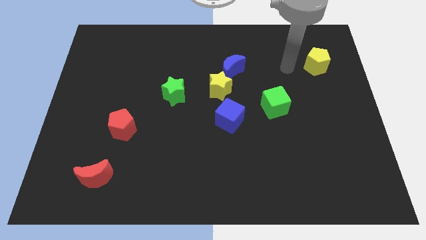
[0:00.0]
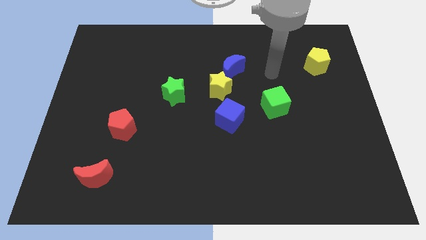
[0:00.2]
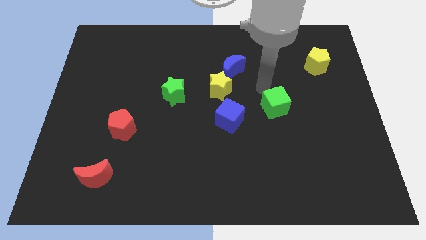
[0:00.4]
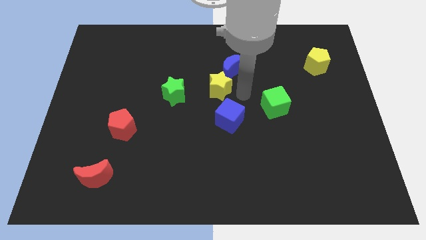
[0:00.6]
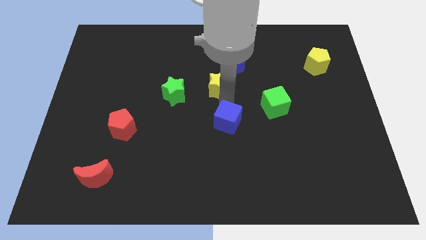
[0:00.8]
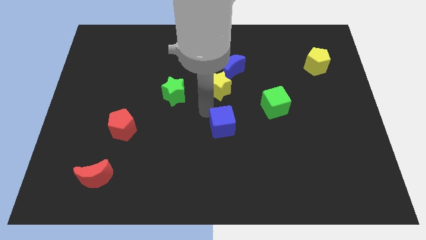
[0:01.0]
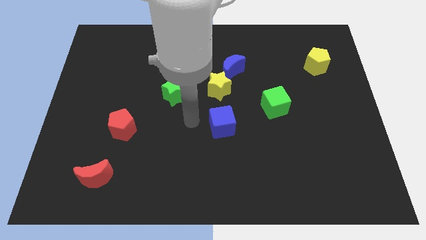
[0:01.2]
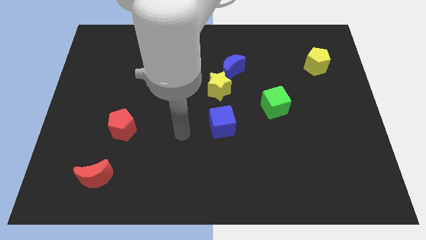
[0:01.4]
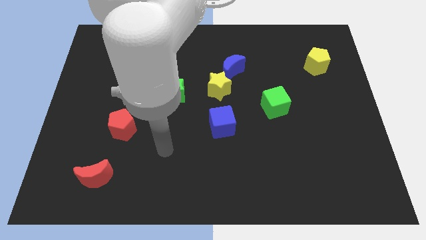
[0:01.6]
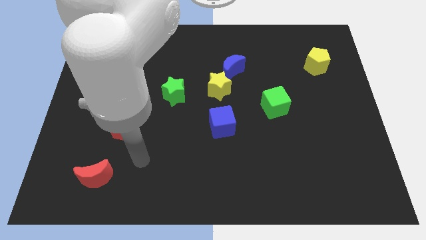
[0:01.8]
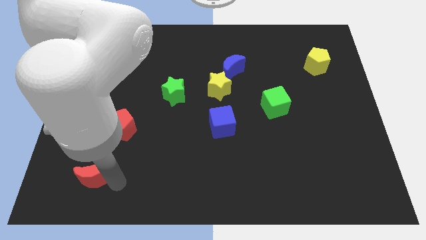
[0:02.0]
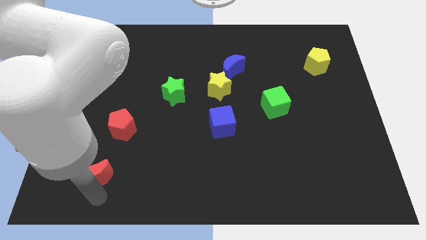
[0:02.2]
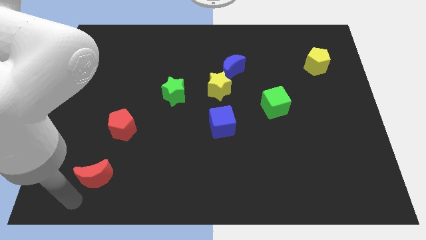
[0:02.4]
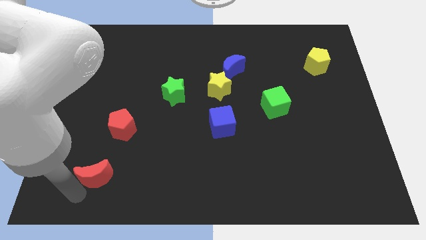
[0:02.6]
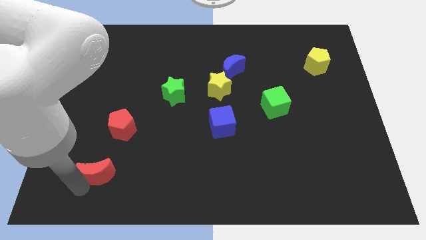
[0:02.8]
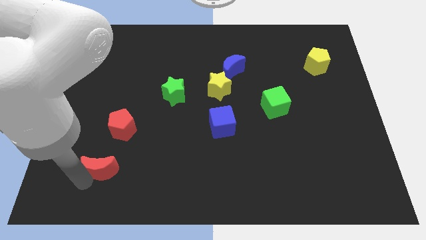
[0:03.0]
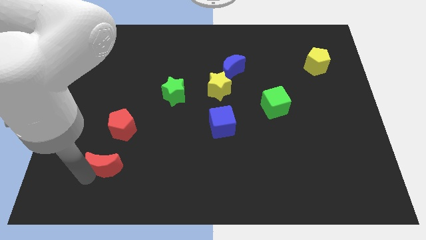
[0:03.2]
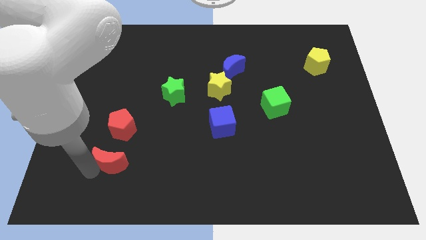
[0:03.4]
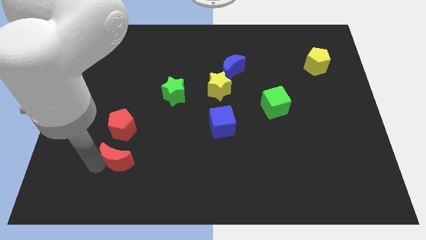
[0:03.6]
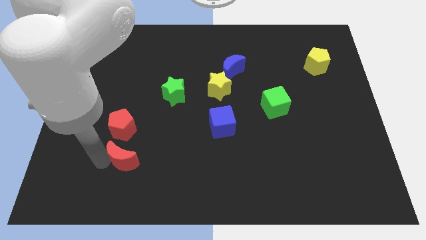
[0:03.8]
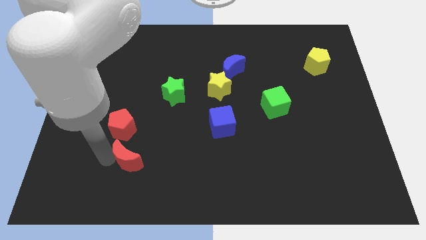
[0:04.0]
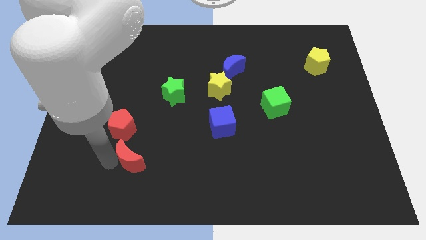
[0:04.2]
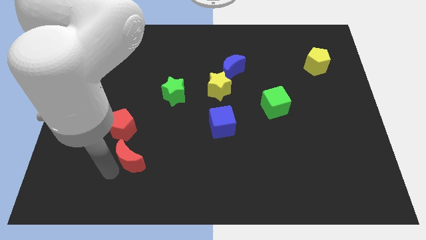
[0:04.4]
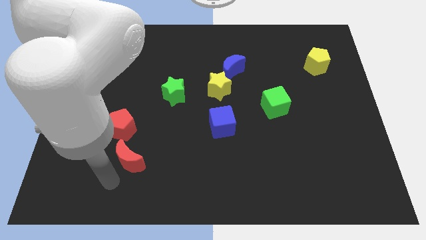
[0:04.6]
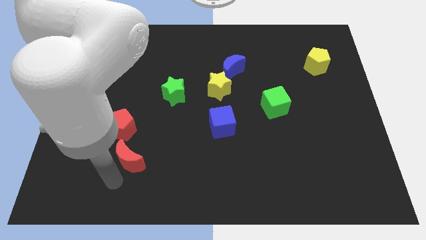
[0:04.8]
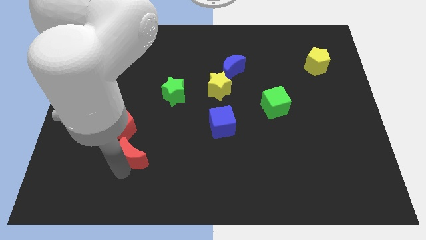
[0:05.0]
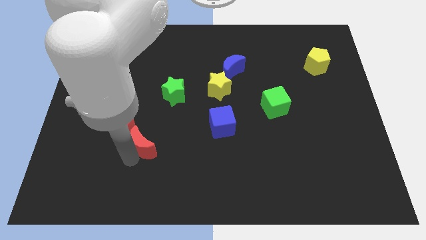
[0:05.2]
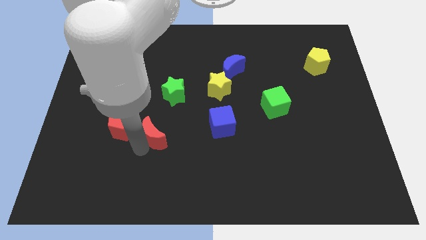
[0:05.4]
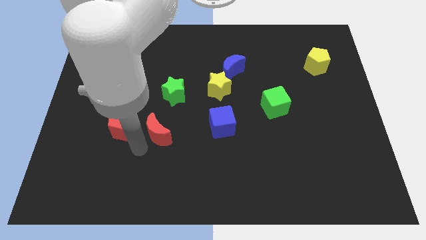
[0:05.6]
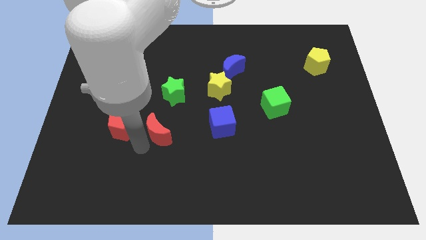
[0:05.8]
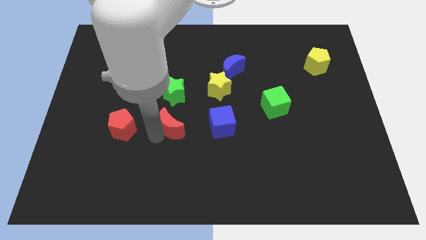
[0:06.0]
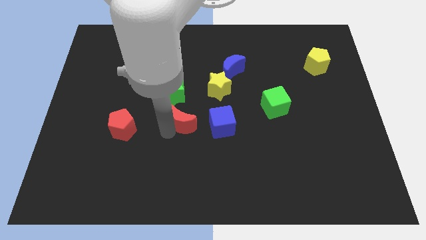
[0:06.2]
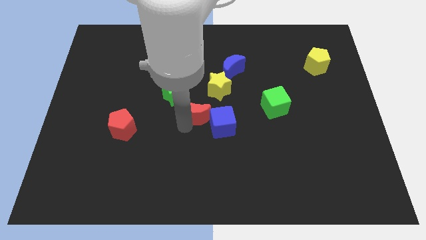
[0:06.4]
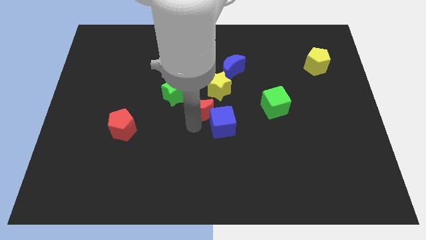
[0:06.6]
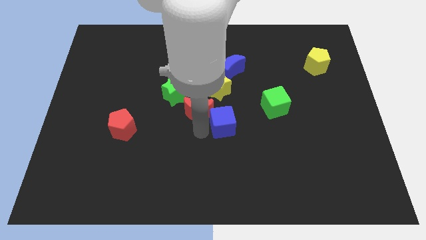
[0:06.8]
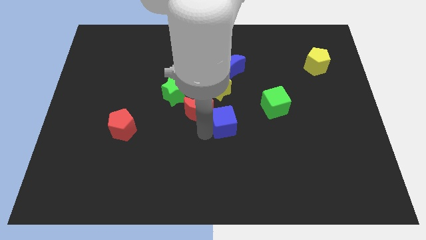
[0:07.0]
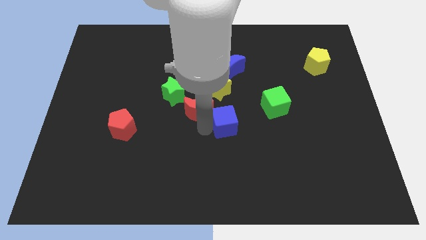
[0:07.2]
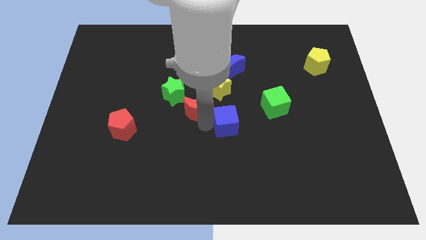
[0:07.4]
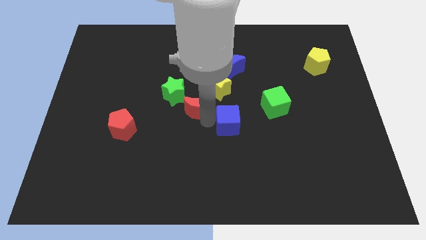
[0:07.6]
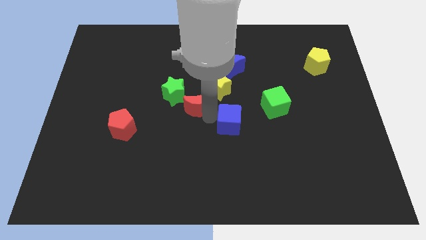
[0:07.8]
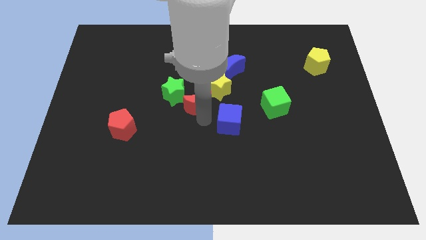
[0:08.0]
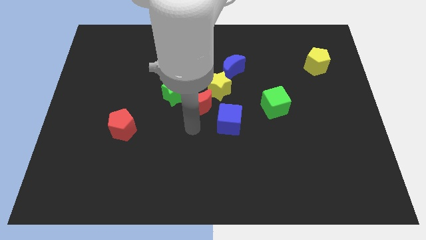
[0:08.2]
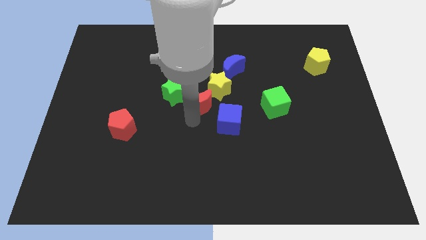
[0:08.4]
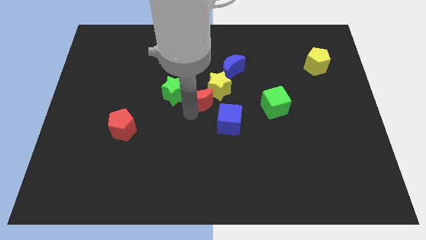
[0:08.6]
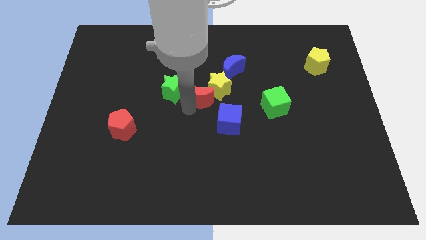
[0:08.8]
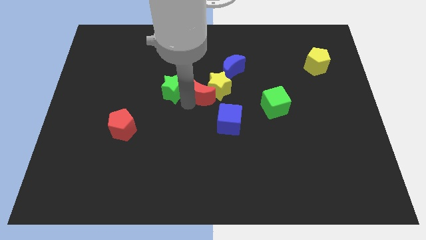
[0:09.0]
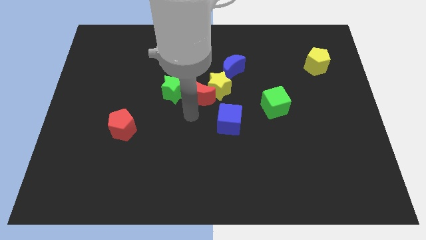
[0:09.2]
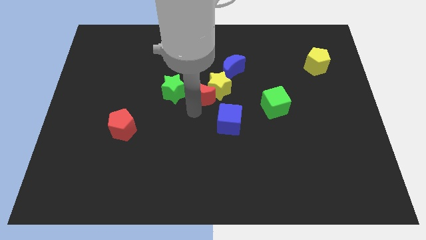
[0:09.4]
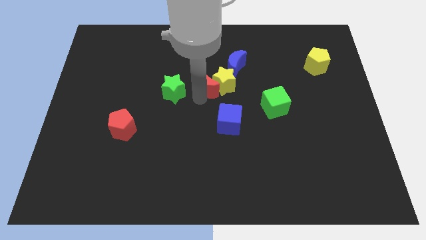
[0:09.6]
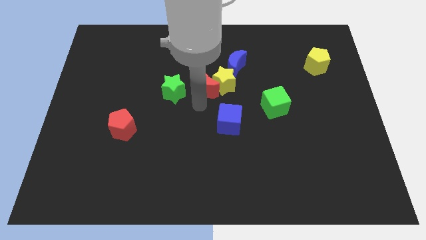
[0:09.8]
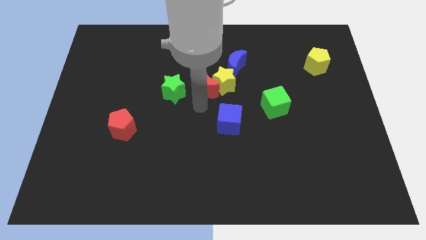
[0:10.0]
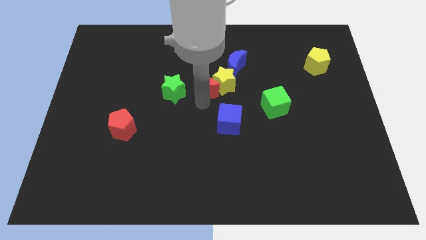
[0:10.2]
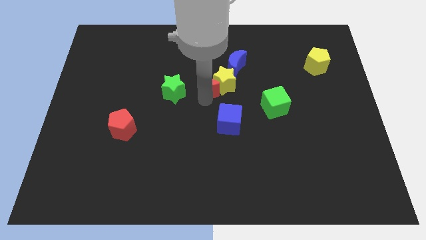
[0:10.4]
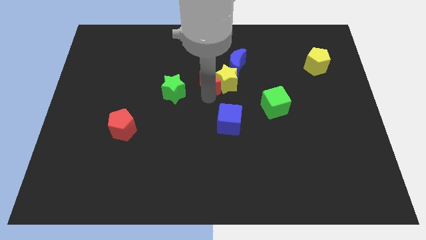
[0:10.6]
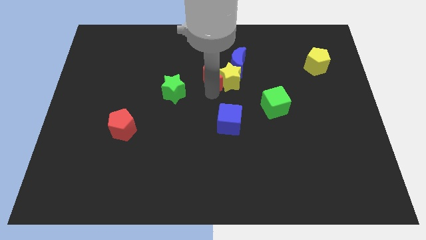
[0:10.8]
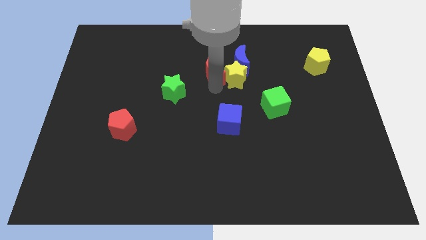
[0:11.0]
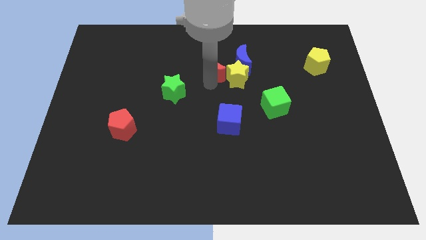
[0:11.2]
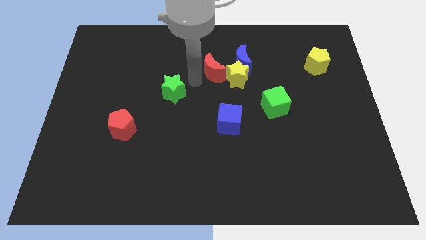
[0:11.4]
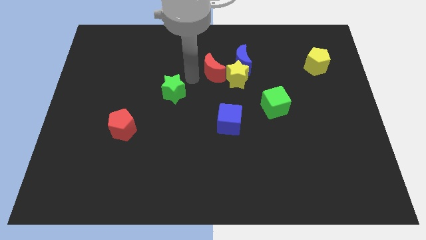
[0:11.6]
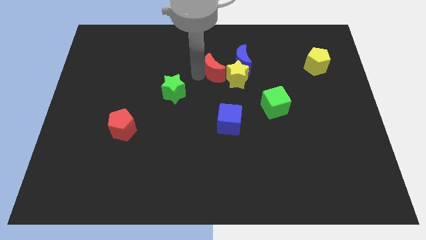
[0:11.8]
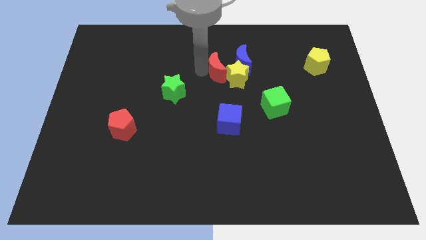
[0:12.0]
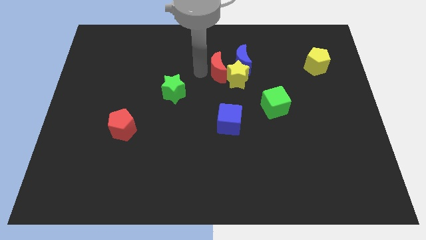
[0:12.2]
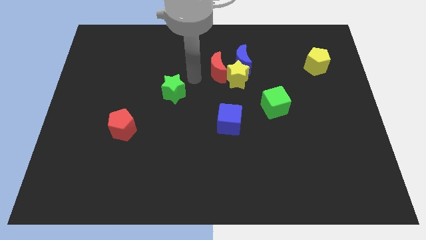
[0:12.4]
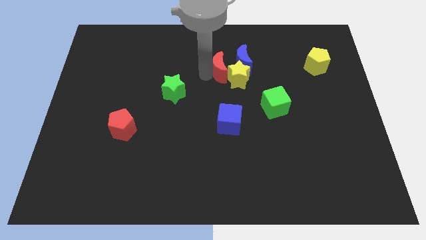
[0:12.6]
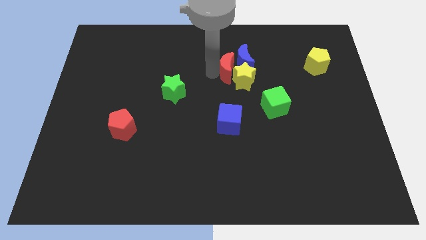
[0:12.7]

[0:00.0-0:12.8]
slide the red moon towards the blue moon

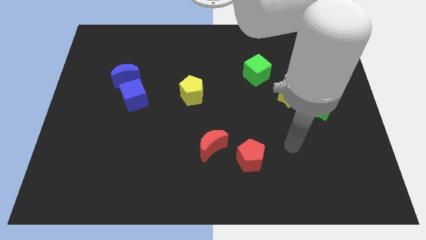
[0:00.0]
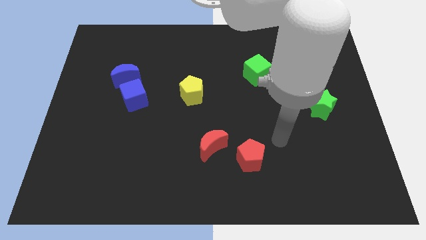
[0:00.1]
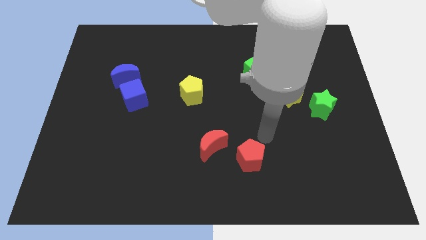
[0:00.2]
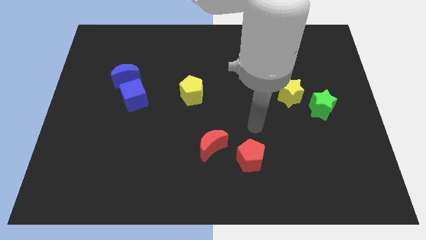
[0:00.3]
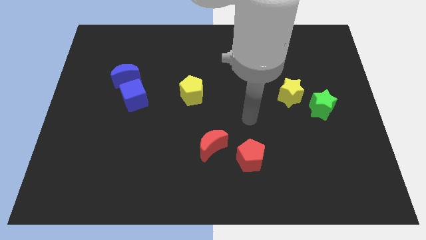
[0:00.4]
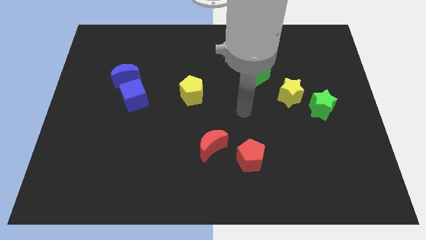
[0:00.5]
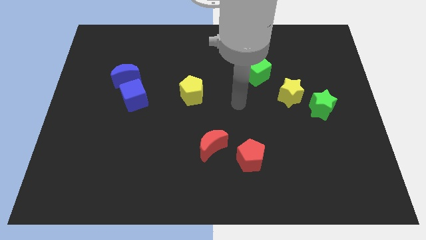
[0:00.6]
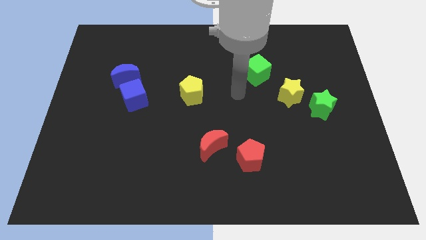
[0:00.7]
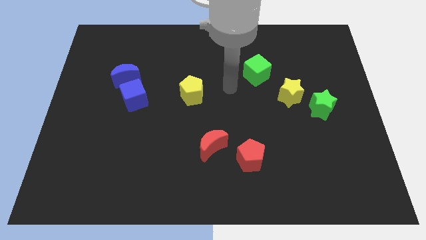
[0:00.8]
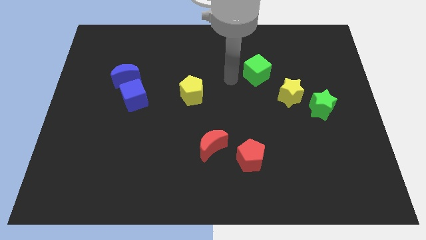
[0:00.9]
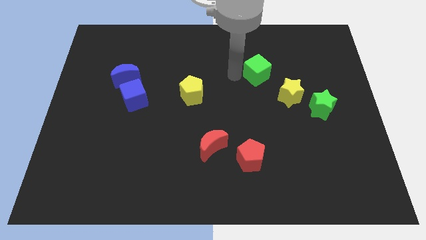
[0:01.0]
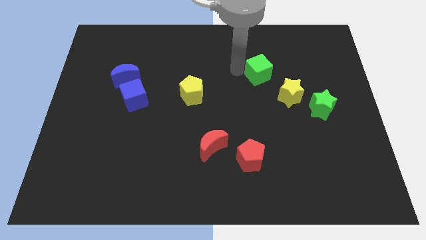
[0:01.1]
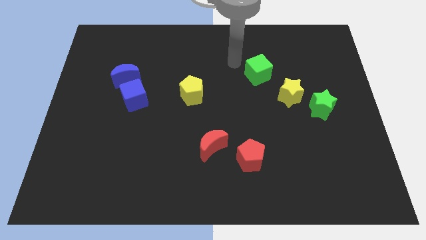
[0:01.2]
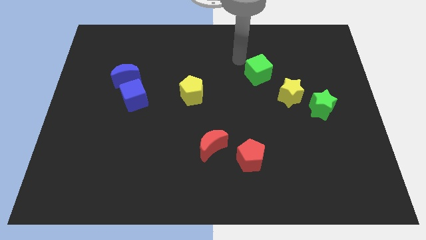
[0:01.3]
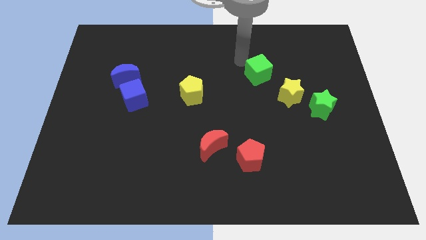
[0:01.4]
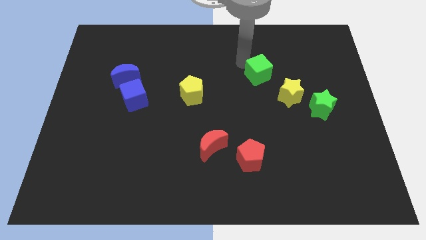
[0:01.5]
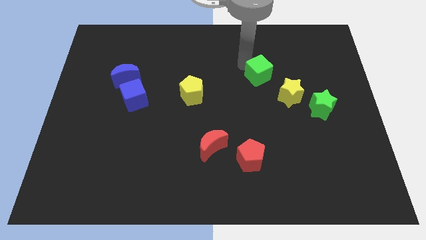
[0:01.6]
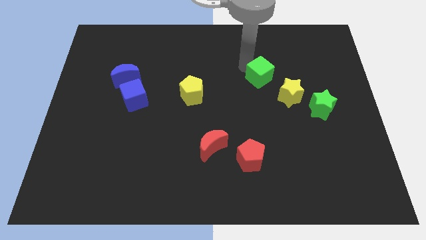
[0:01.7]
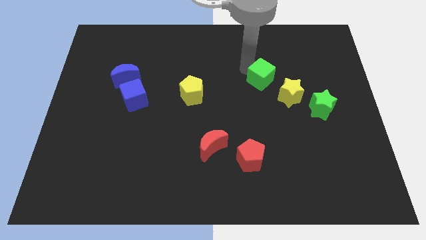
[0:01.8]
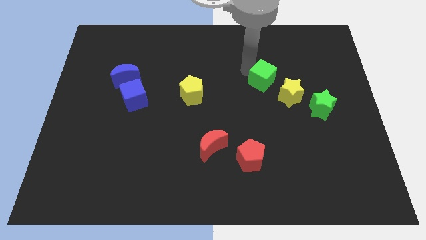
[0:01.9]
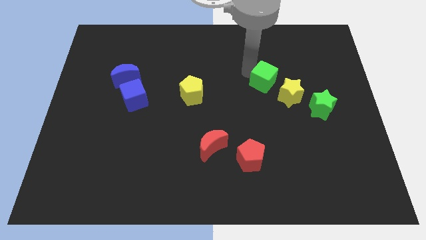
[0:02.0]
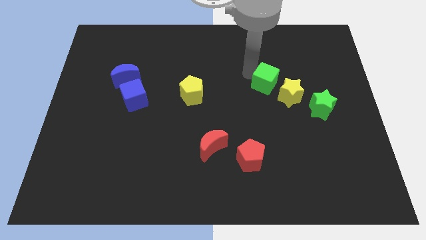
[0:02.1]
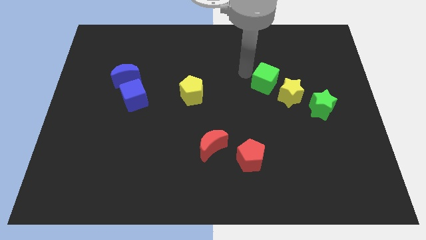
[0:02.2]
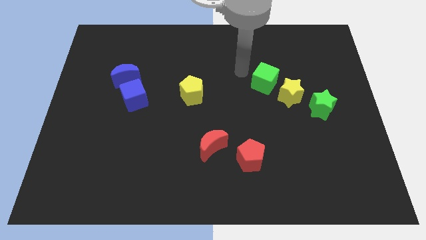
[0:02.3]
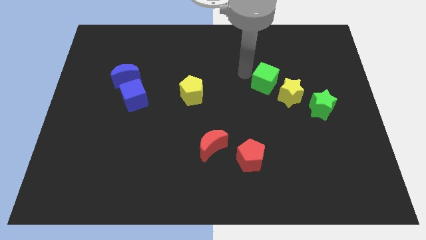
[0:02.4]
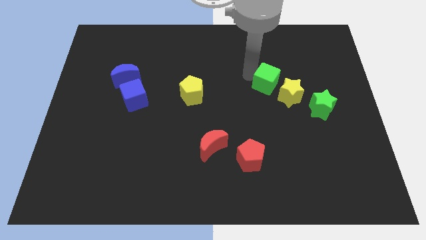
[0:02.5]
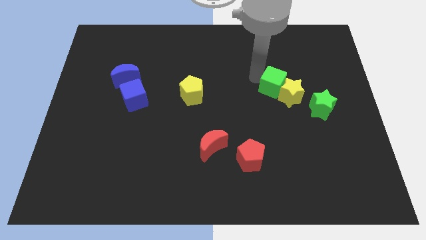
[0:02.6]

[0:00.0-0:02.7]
slide the green cube towards the yellow star
